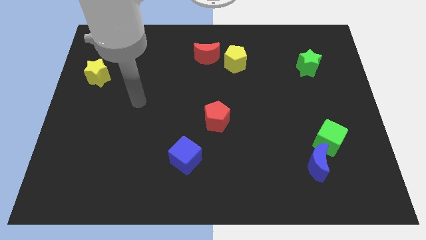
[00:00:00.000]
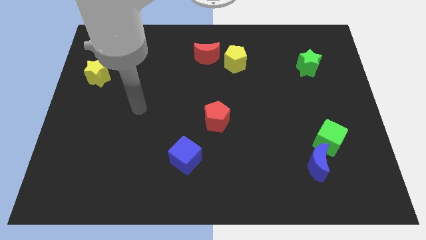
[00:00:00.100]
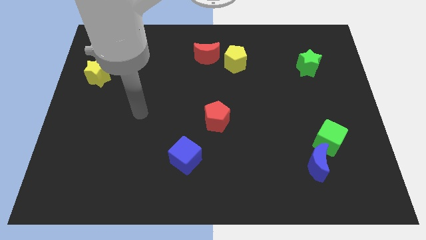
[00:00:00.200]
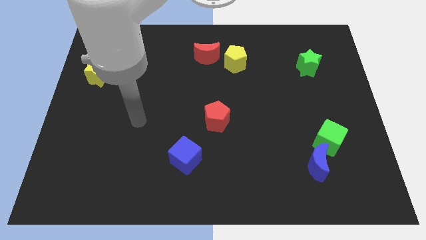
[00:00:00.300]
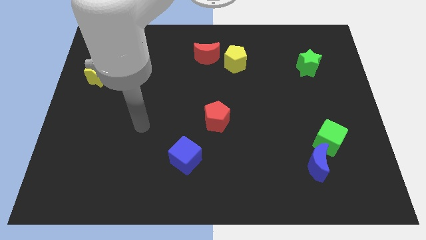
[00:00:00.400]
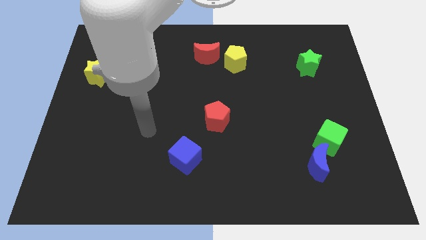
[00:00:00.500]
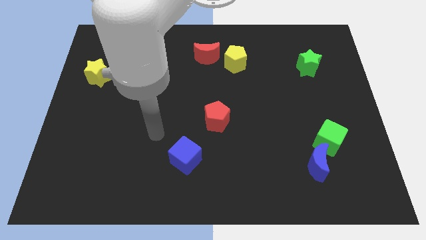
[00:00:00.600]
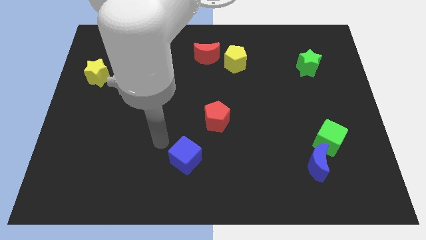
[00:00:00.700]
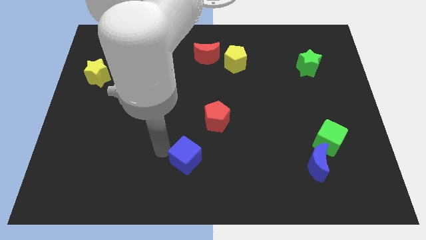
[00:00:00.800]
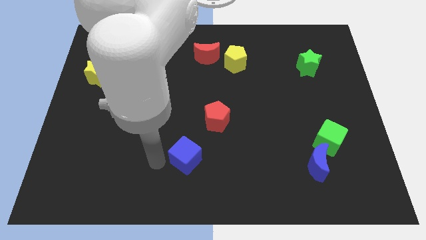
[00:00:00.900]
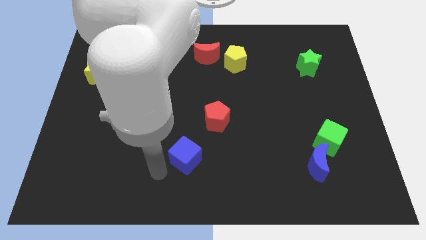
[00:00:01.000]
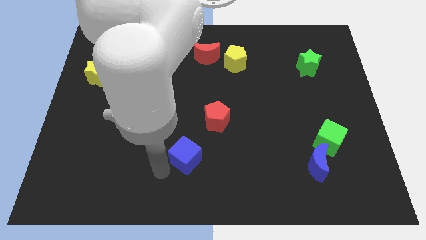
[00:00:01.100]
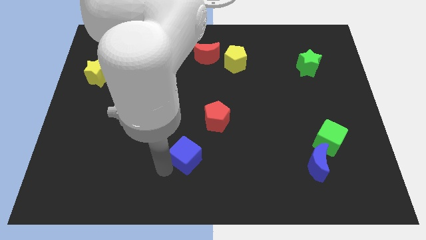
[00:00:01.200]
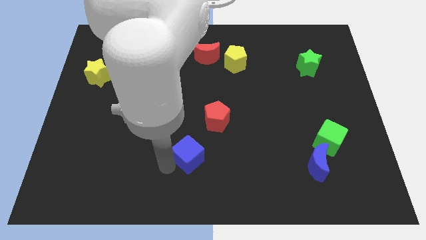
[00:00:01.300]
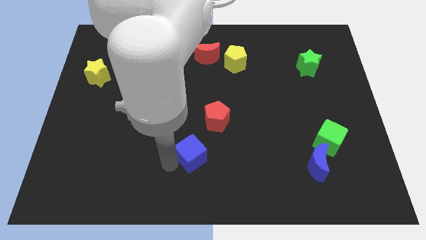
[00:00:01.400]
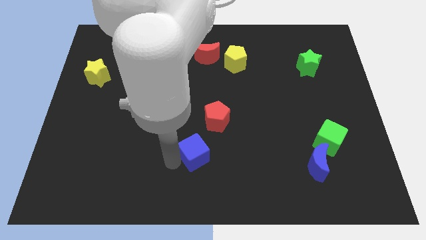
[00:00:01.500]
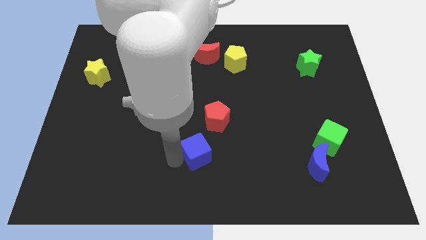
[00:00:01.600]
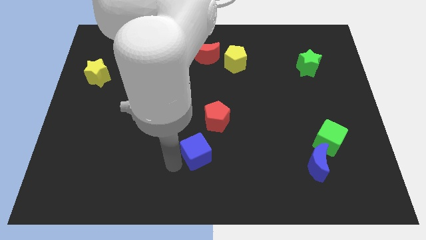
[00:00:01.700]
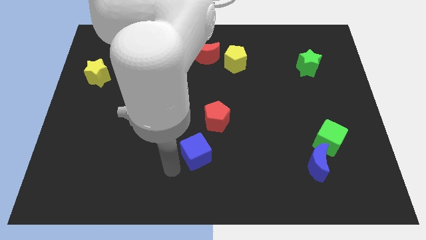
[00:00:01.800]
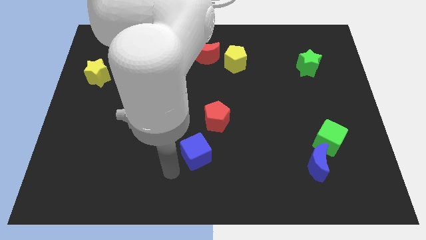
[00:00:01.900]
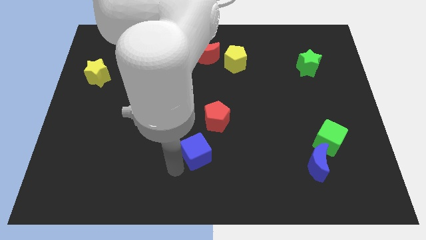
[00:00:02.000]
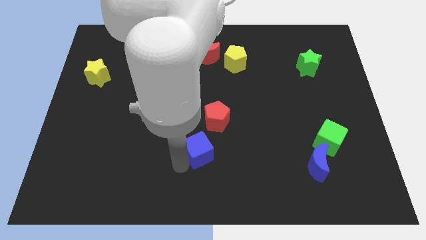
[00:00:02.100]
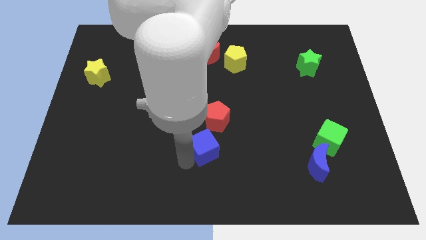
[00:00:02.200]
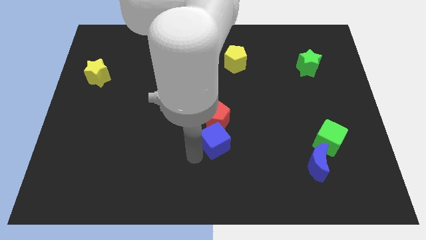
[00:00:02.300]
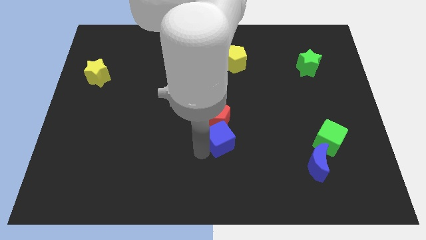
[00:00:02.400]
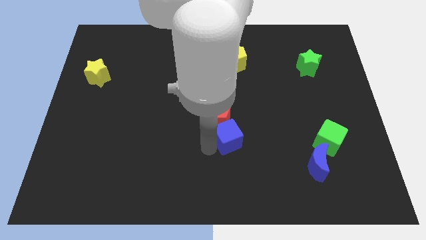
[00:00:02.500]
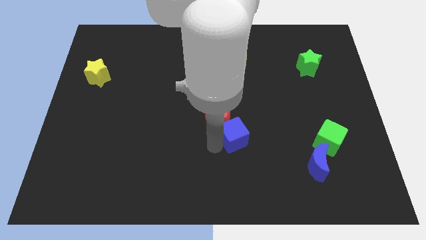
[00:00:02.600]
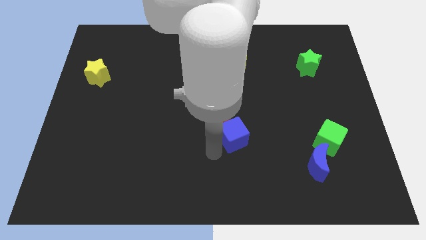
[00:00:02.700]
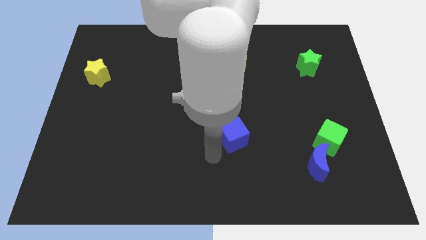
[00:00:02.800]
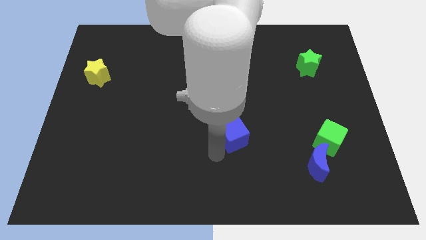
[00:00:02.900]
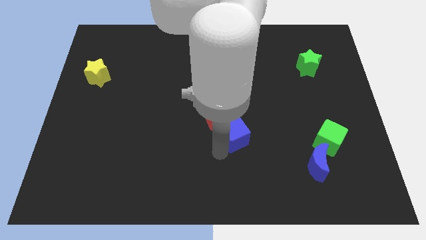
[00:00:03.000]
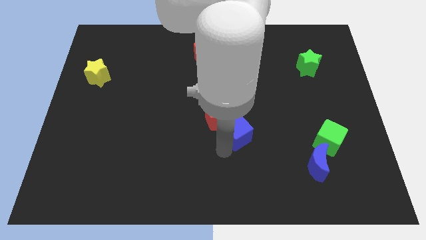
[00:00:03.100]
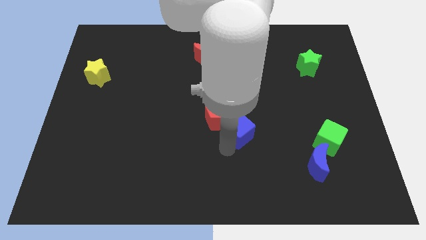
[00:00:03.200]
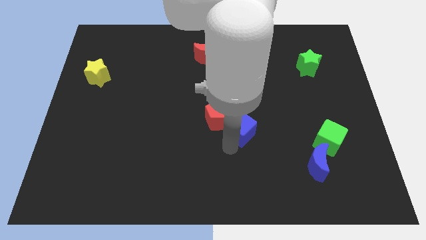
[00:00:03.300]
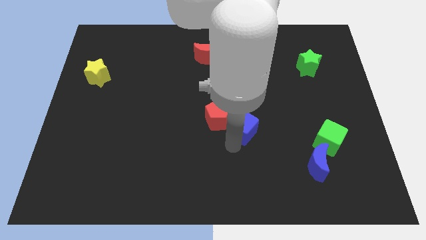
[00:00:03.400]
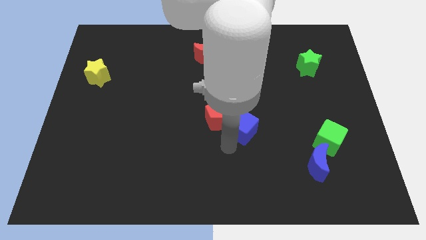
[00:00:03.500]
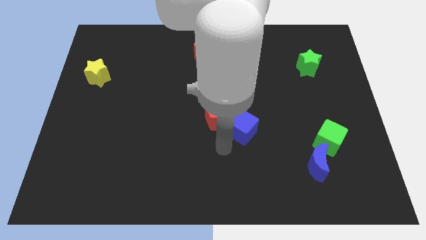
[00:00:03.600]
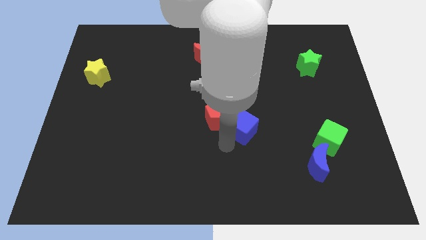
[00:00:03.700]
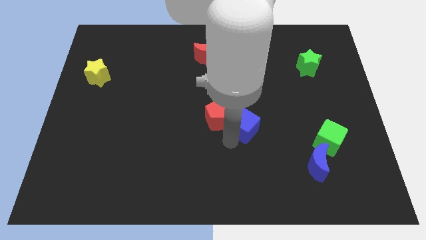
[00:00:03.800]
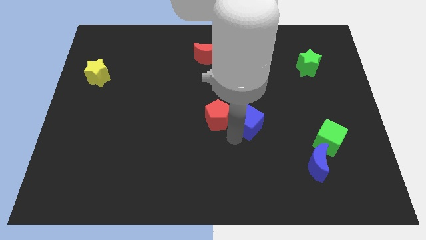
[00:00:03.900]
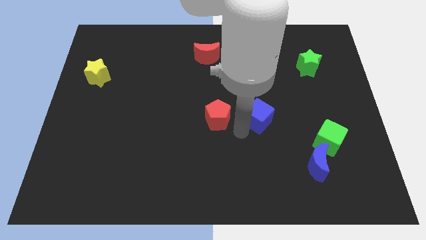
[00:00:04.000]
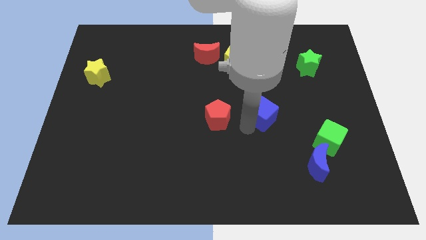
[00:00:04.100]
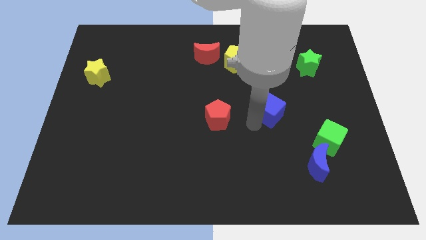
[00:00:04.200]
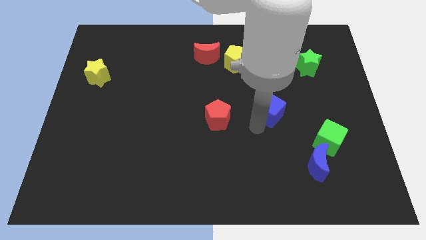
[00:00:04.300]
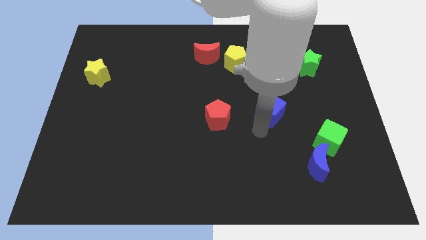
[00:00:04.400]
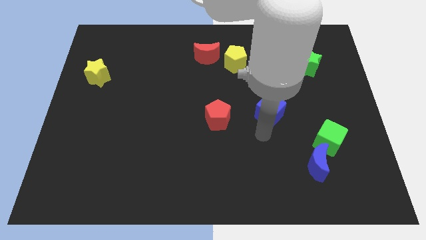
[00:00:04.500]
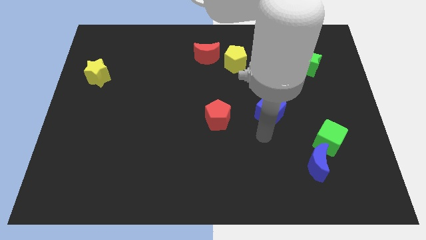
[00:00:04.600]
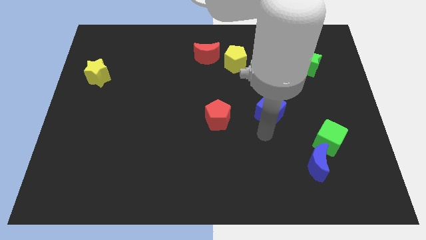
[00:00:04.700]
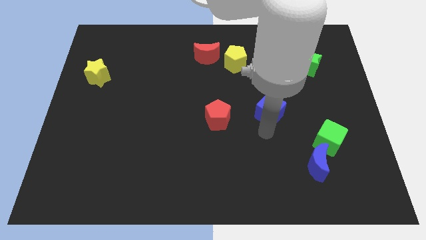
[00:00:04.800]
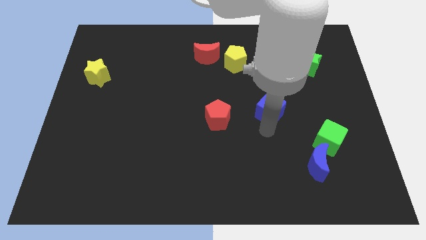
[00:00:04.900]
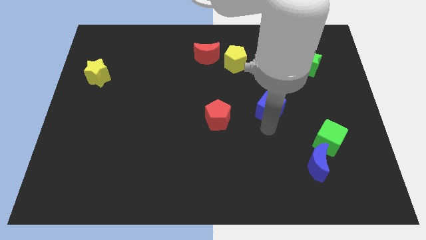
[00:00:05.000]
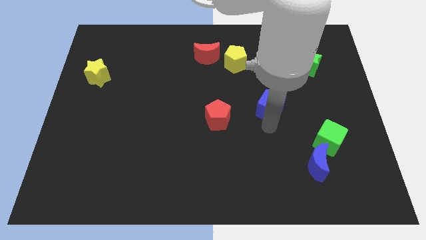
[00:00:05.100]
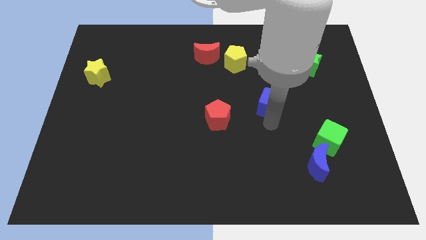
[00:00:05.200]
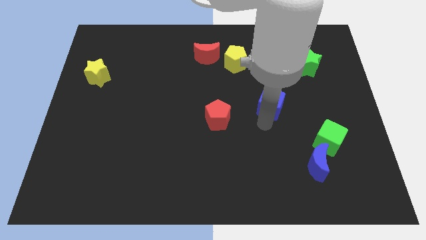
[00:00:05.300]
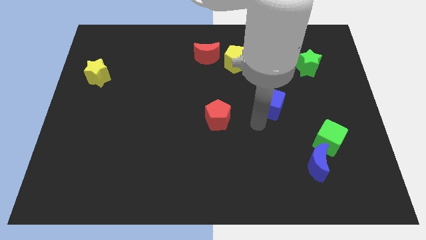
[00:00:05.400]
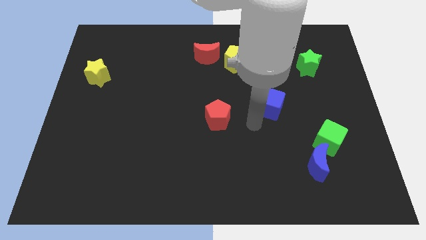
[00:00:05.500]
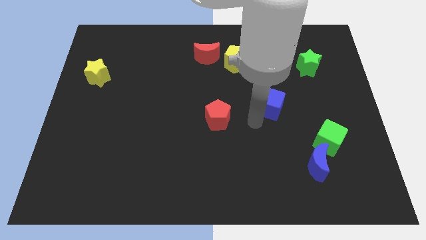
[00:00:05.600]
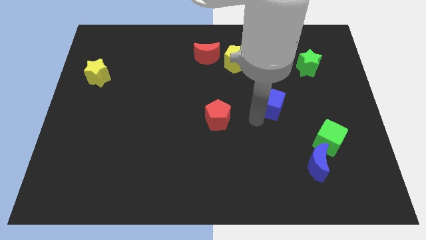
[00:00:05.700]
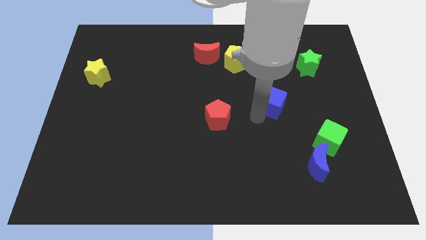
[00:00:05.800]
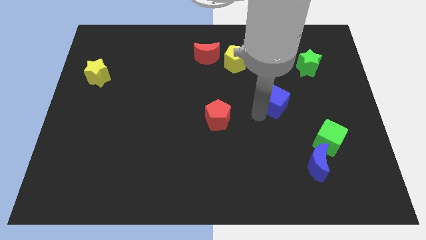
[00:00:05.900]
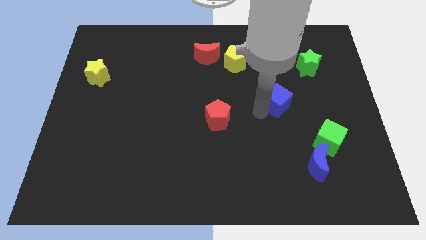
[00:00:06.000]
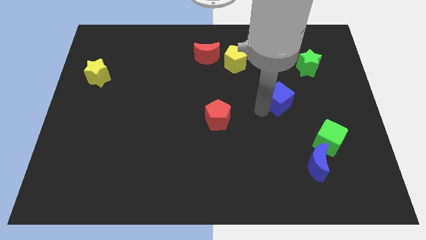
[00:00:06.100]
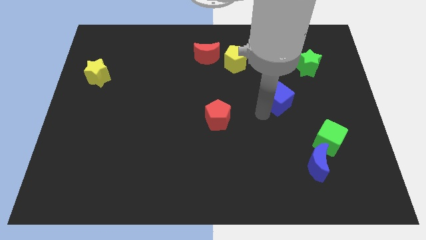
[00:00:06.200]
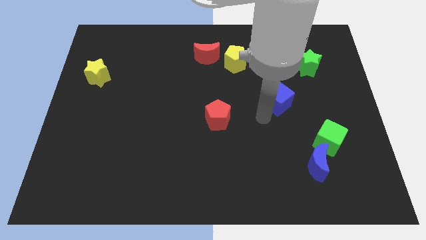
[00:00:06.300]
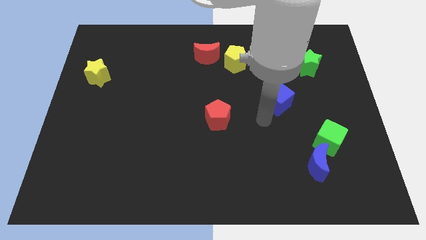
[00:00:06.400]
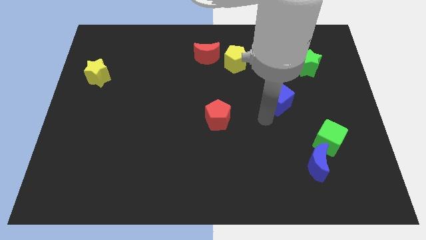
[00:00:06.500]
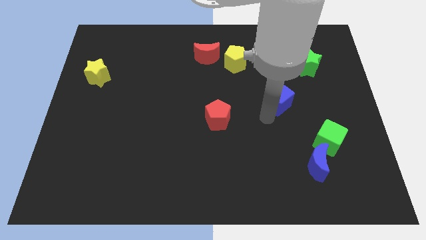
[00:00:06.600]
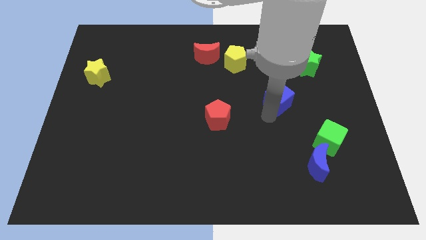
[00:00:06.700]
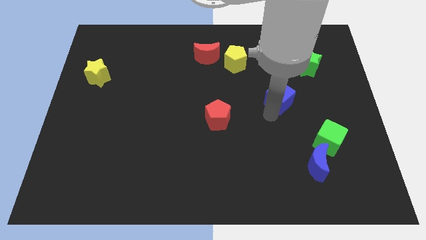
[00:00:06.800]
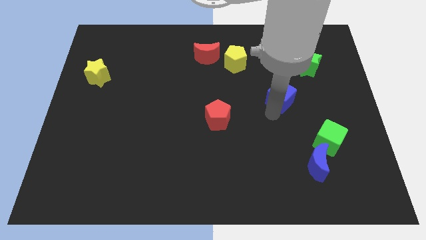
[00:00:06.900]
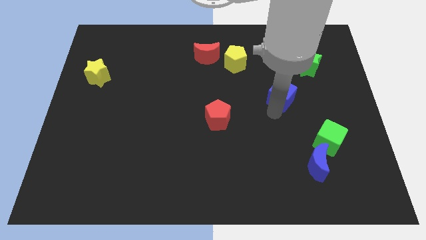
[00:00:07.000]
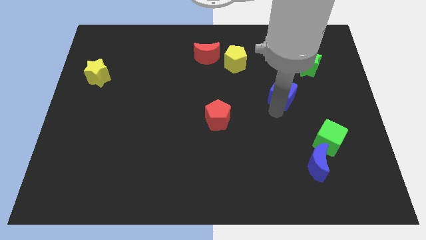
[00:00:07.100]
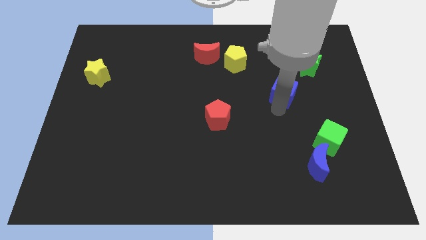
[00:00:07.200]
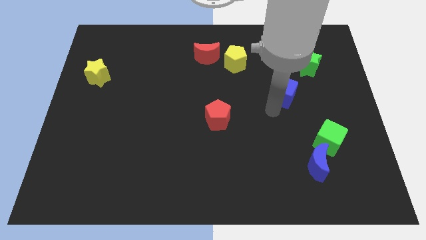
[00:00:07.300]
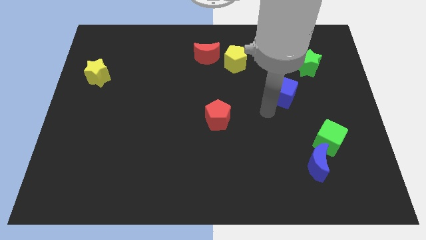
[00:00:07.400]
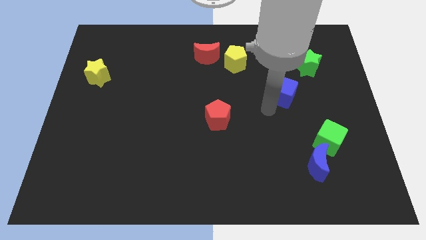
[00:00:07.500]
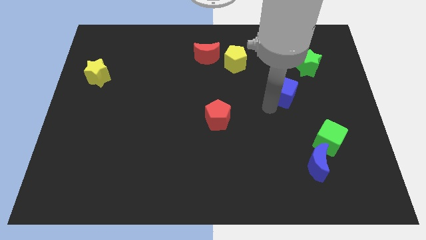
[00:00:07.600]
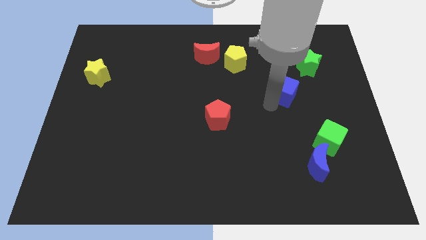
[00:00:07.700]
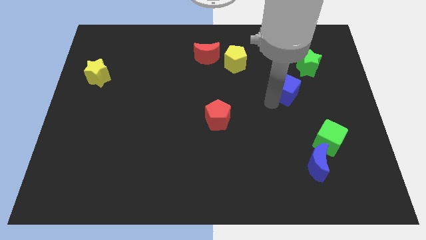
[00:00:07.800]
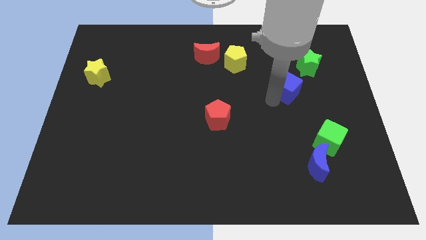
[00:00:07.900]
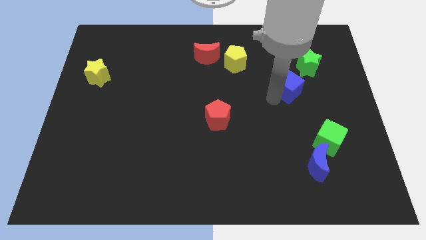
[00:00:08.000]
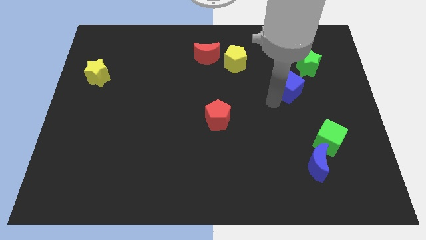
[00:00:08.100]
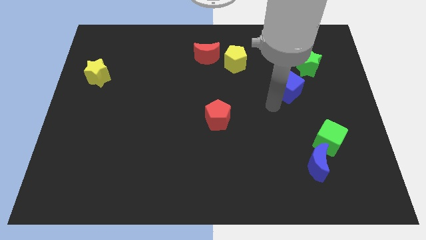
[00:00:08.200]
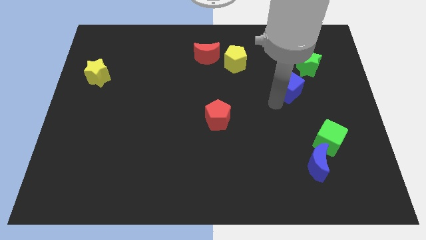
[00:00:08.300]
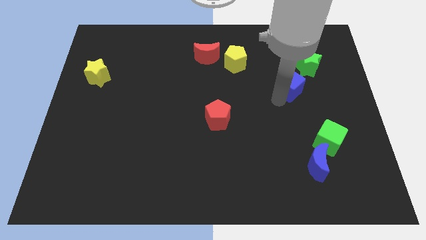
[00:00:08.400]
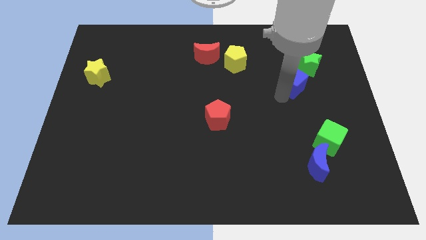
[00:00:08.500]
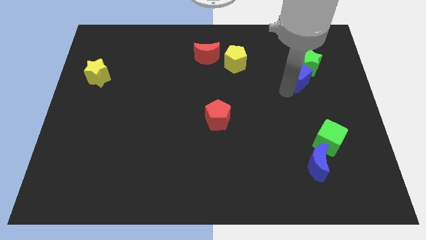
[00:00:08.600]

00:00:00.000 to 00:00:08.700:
move the blue cube close to the green star

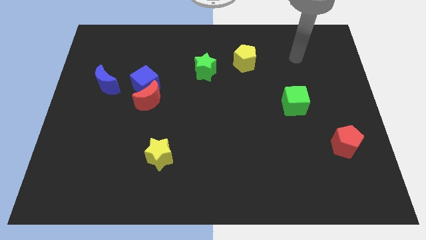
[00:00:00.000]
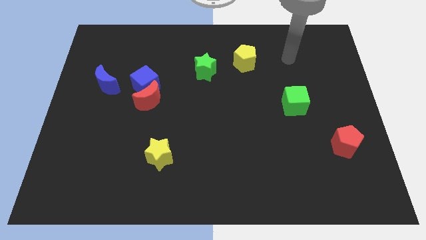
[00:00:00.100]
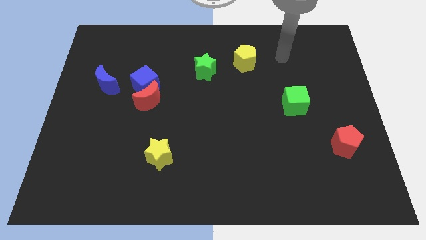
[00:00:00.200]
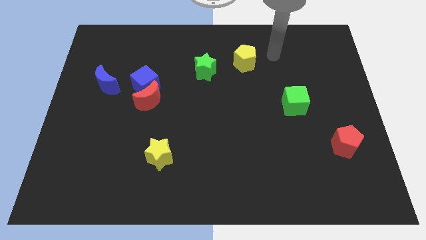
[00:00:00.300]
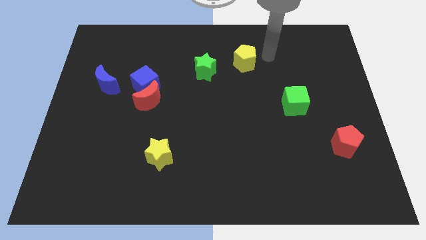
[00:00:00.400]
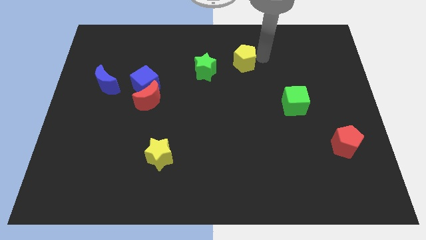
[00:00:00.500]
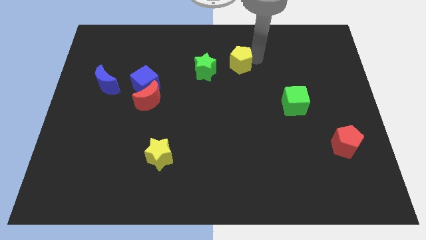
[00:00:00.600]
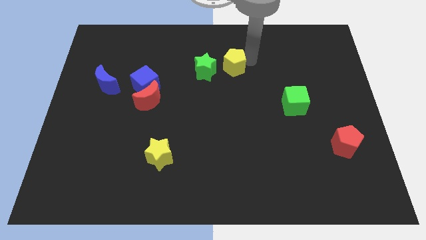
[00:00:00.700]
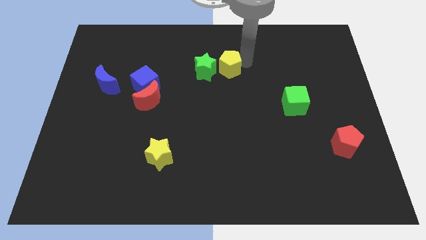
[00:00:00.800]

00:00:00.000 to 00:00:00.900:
move the yellow pentagon towards the green star
